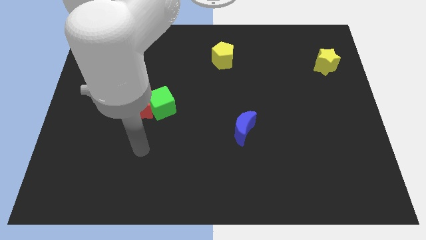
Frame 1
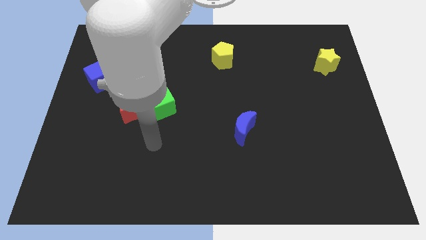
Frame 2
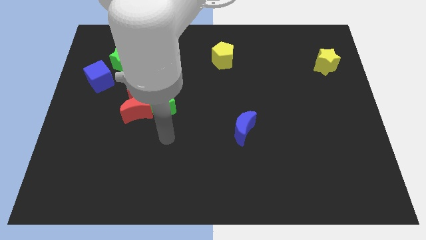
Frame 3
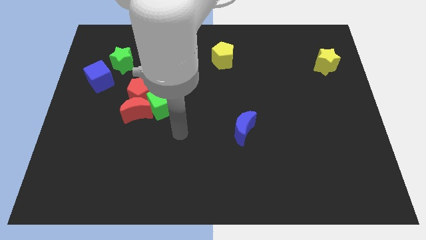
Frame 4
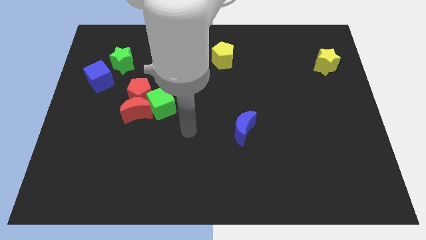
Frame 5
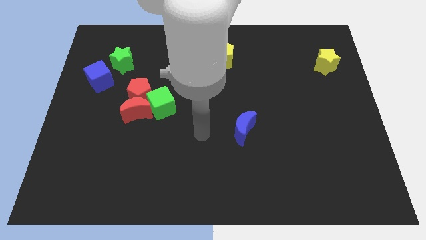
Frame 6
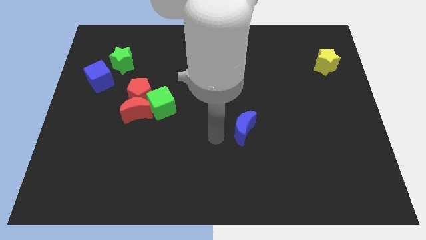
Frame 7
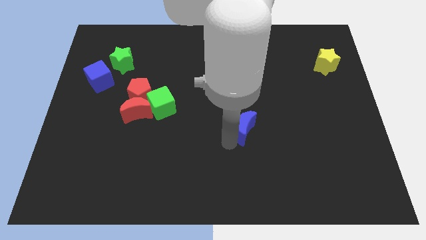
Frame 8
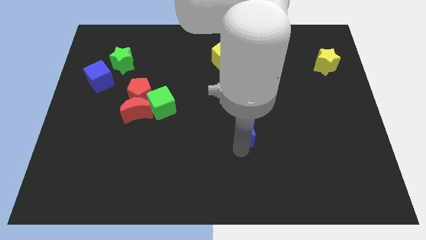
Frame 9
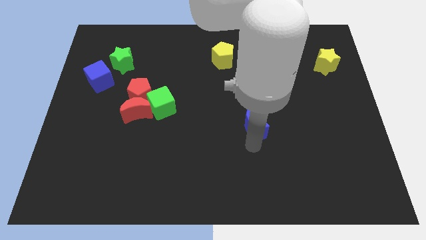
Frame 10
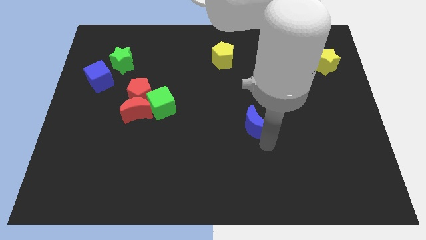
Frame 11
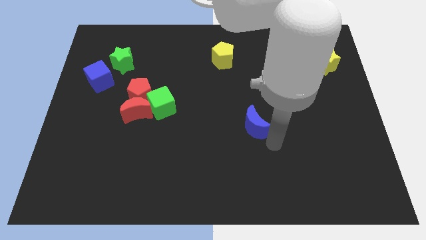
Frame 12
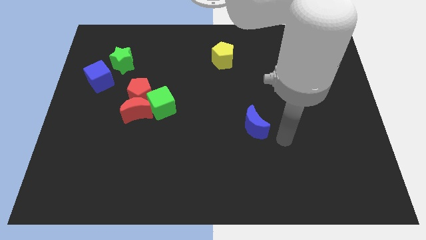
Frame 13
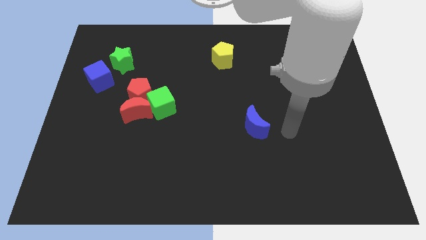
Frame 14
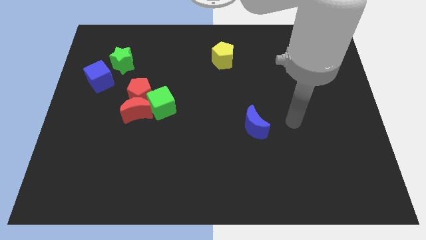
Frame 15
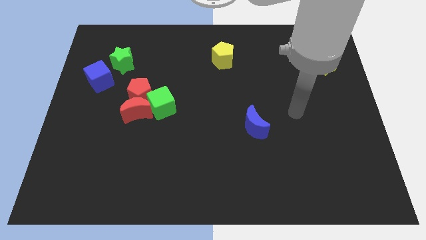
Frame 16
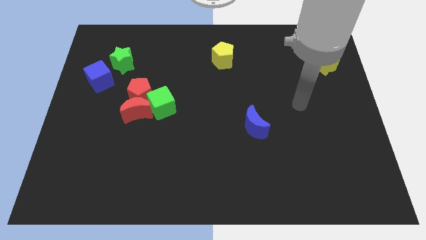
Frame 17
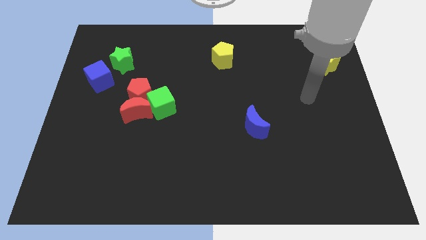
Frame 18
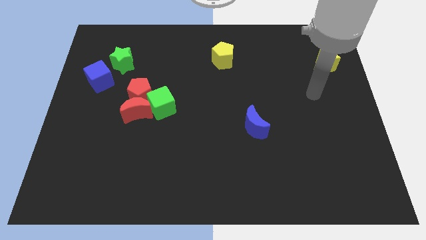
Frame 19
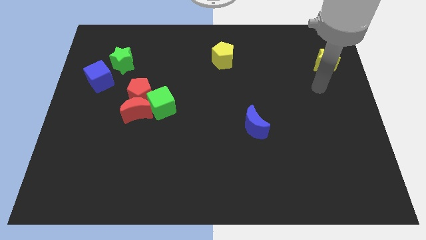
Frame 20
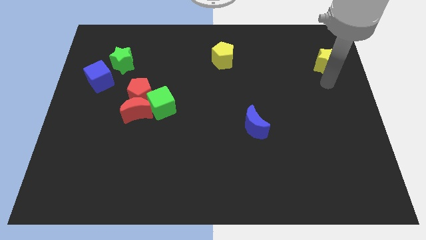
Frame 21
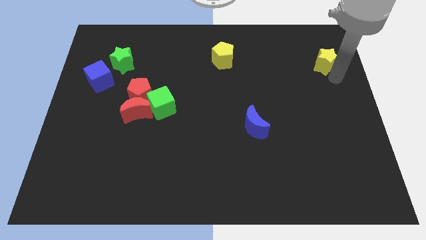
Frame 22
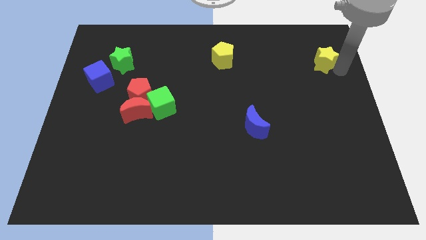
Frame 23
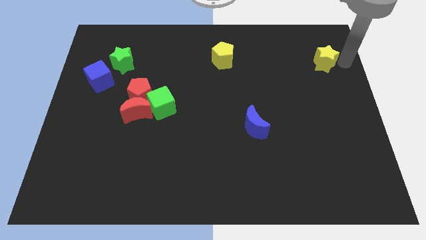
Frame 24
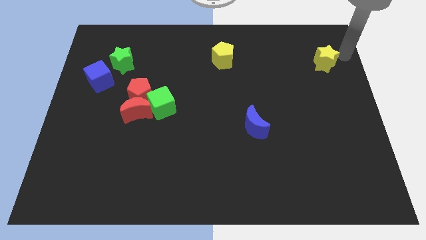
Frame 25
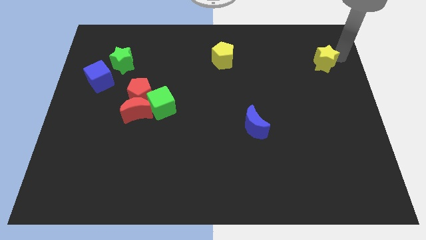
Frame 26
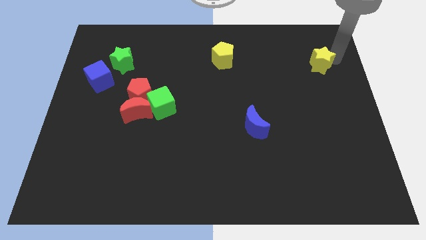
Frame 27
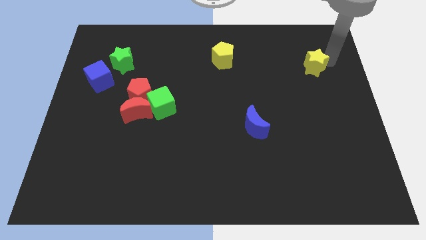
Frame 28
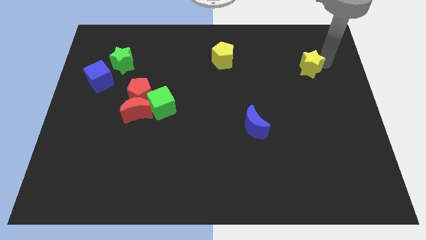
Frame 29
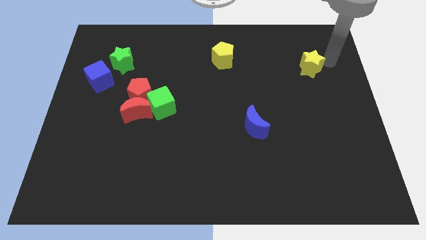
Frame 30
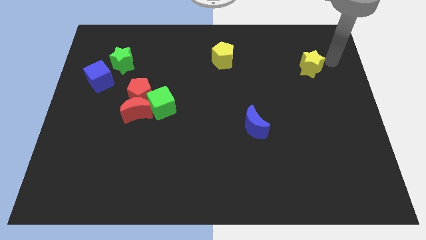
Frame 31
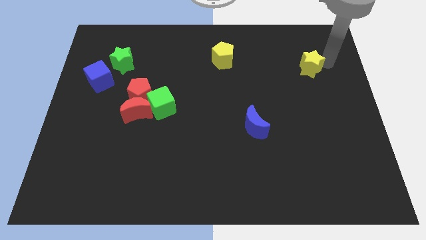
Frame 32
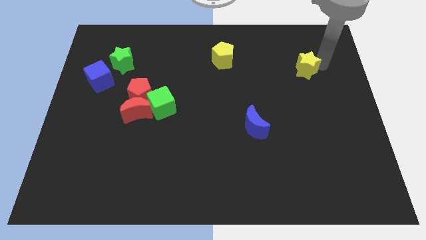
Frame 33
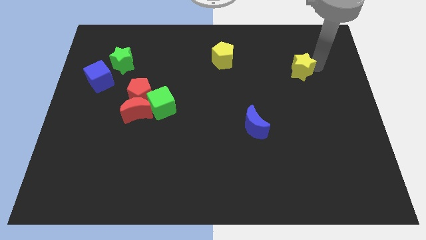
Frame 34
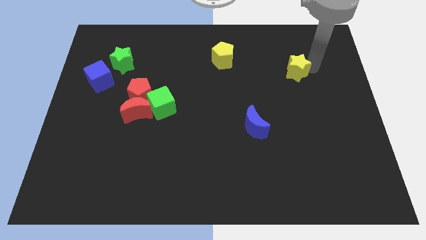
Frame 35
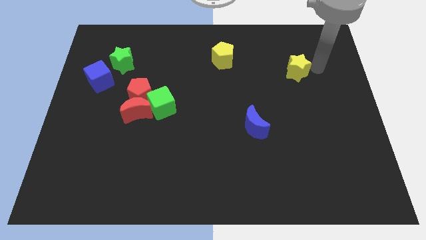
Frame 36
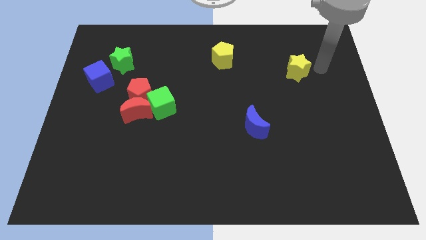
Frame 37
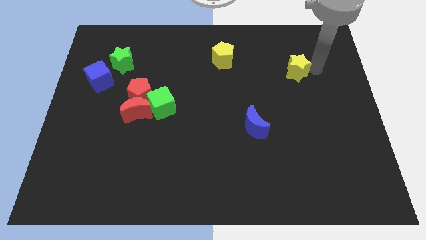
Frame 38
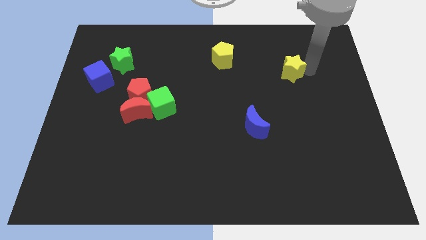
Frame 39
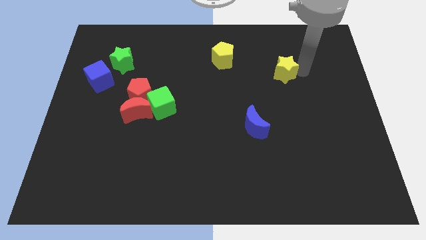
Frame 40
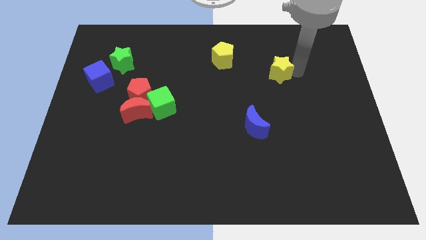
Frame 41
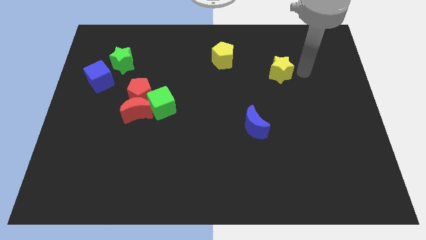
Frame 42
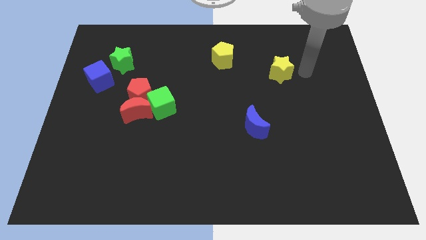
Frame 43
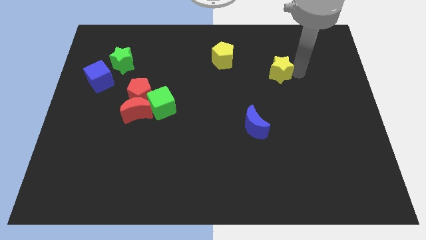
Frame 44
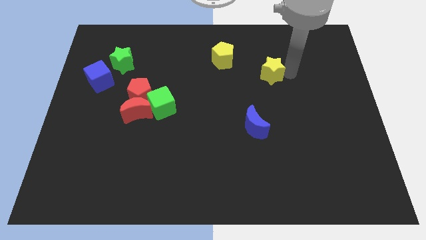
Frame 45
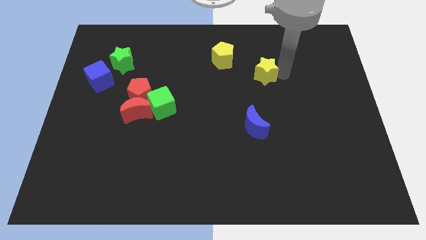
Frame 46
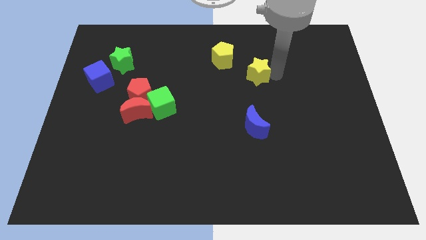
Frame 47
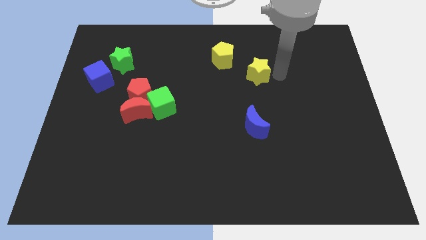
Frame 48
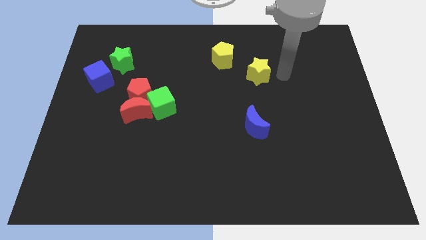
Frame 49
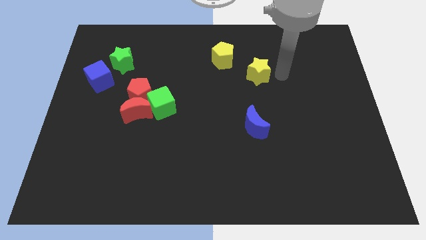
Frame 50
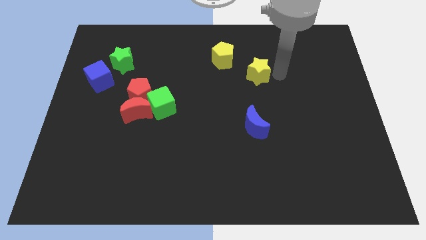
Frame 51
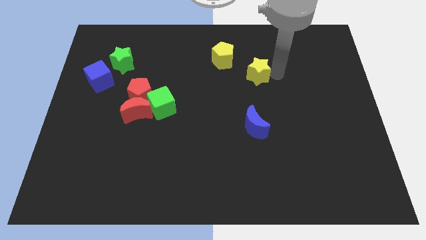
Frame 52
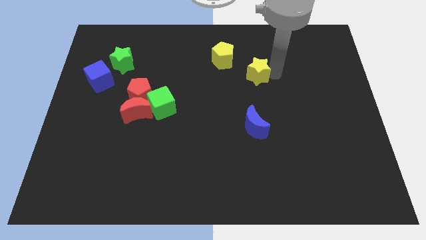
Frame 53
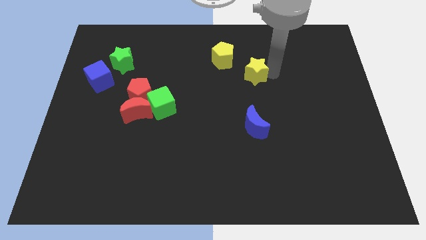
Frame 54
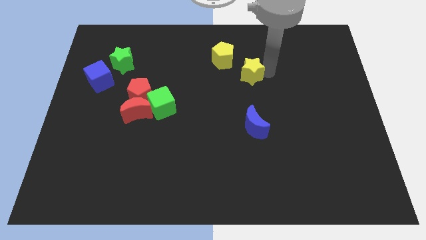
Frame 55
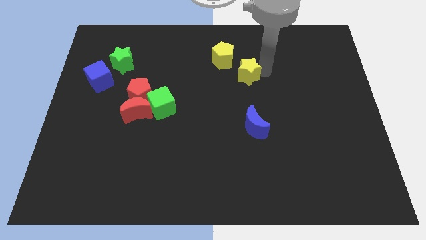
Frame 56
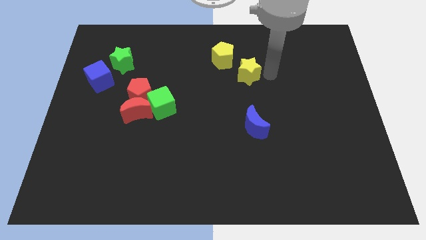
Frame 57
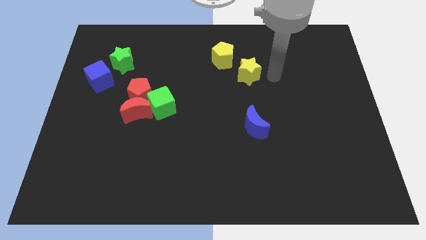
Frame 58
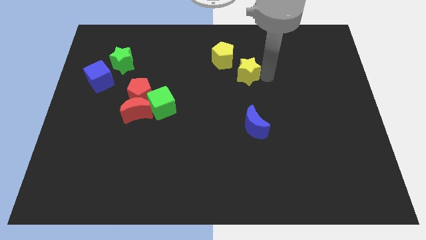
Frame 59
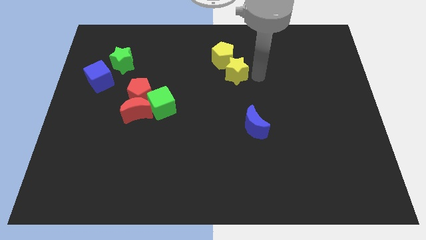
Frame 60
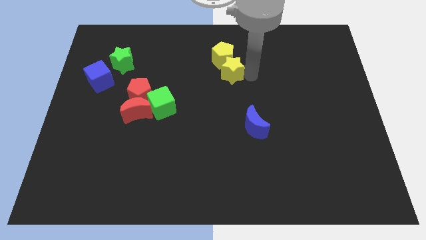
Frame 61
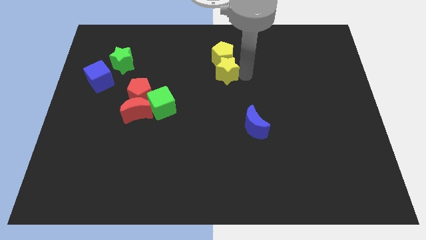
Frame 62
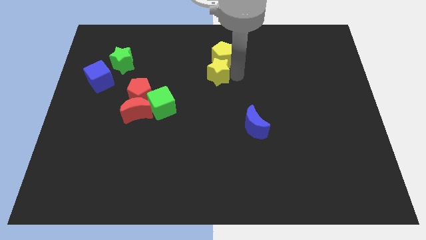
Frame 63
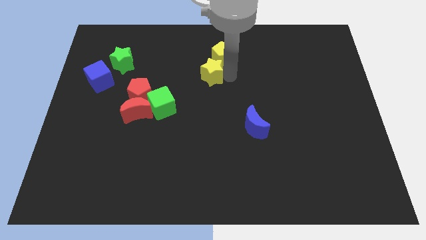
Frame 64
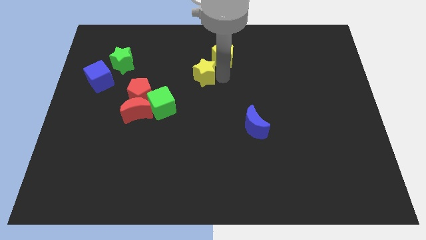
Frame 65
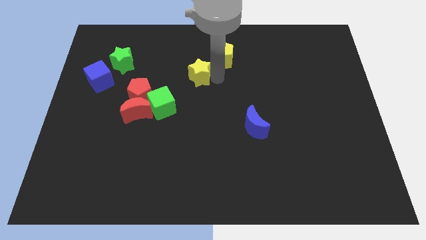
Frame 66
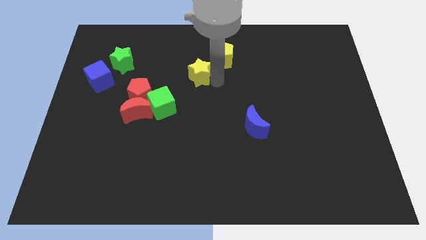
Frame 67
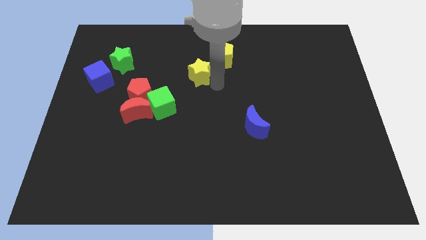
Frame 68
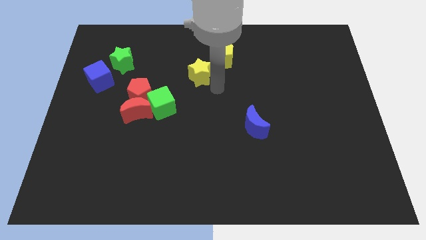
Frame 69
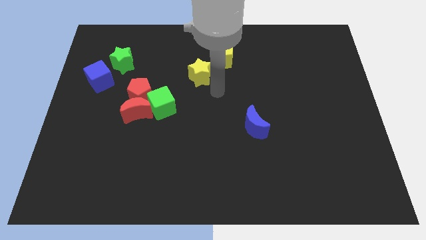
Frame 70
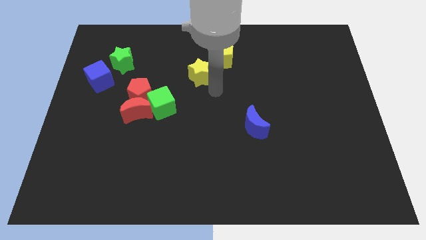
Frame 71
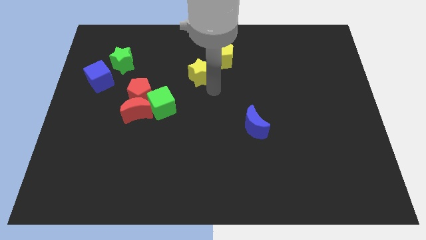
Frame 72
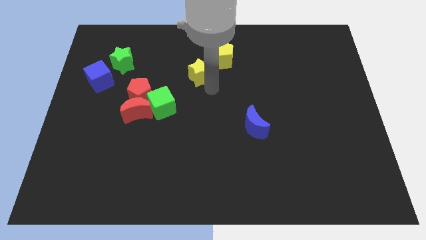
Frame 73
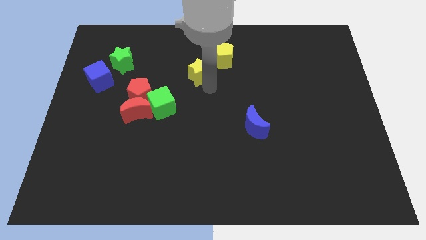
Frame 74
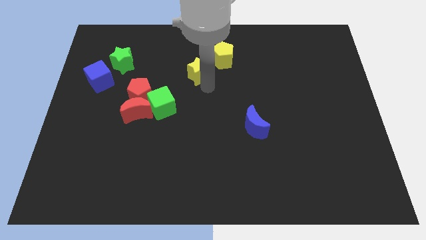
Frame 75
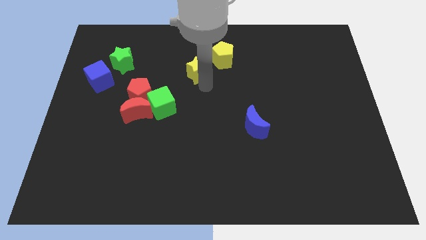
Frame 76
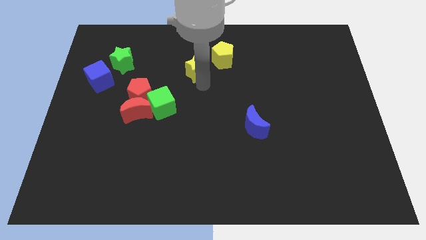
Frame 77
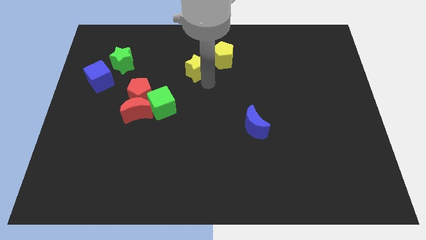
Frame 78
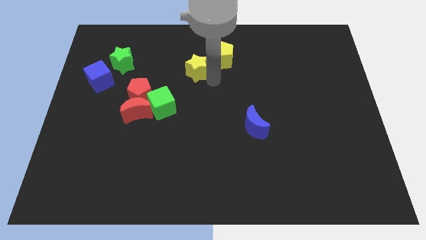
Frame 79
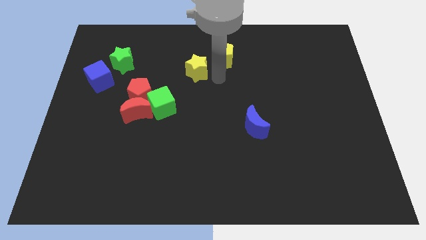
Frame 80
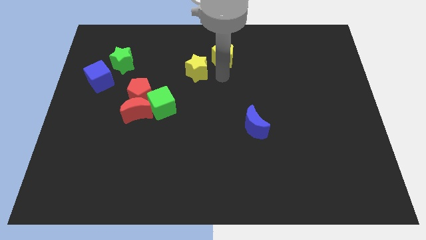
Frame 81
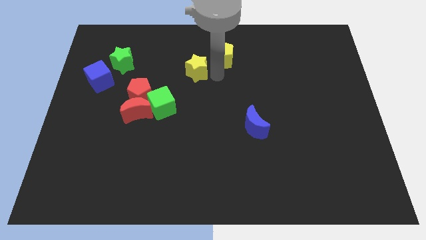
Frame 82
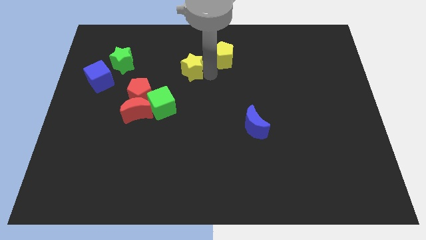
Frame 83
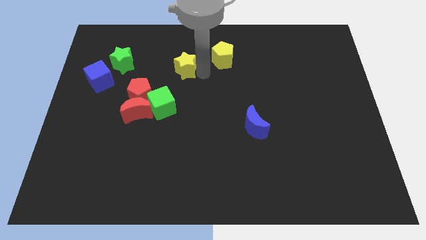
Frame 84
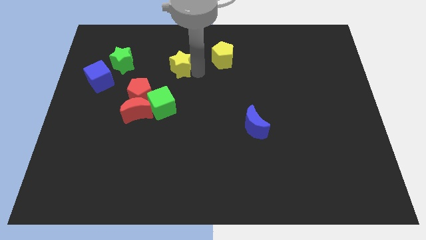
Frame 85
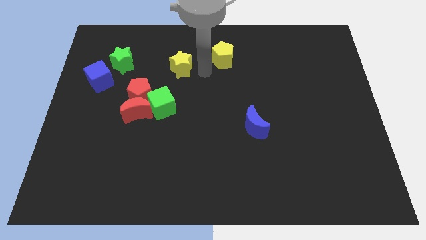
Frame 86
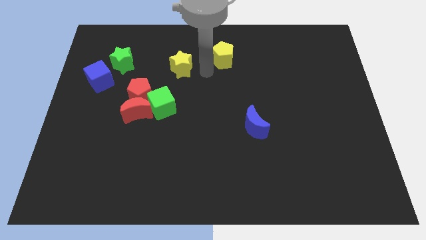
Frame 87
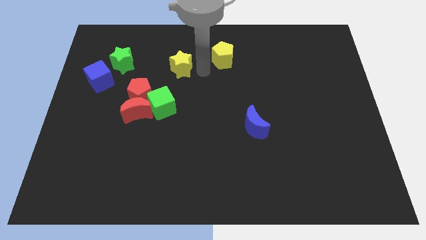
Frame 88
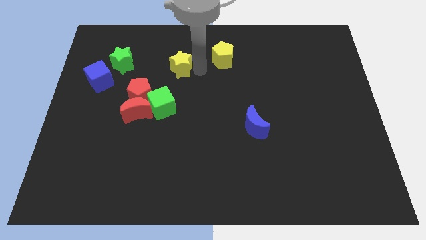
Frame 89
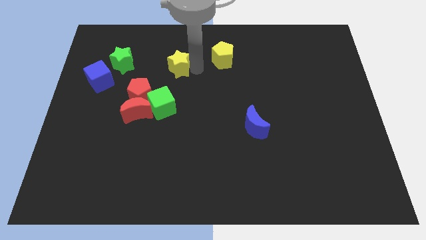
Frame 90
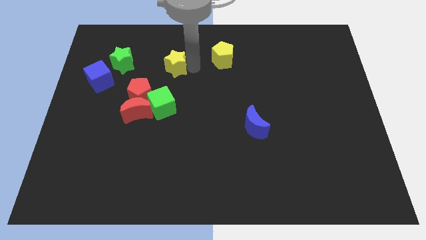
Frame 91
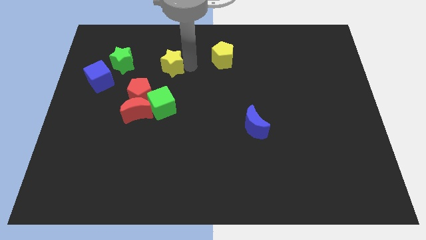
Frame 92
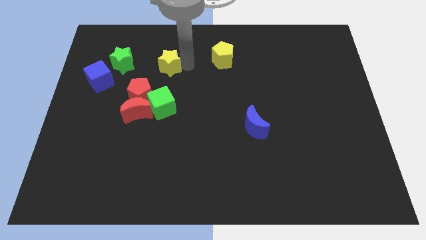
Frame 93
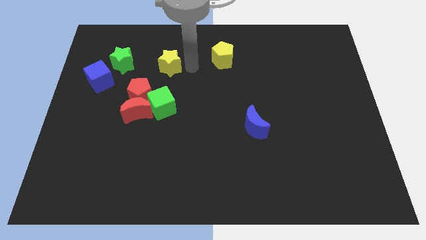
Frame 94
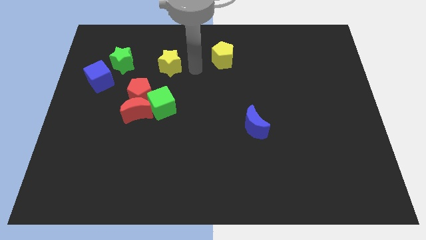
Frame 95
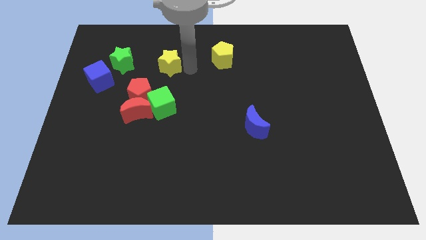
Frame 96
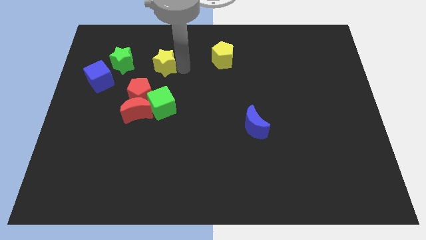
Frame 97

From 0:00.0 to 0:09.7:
push the yellow star above the red pentagon
